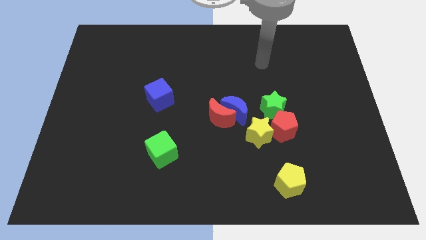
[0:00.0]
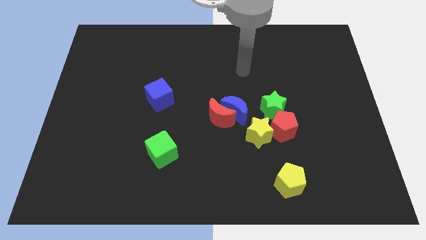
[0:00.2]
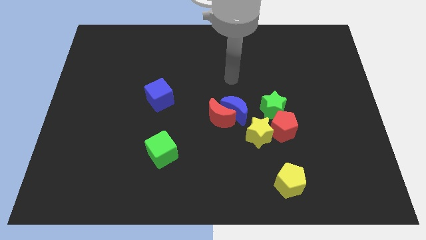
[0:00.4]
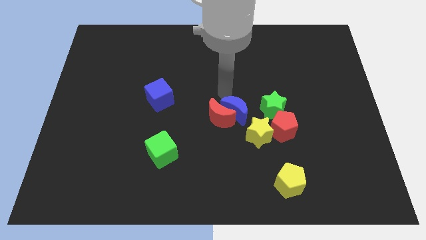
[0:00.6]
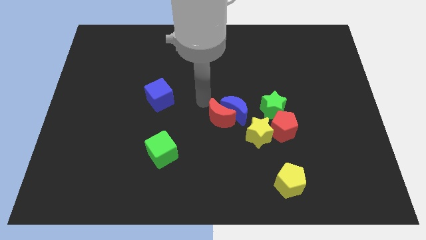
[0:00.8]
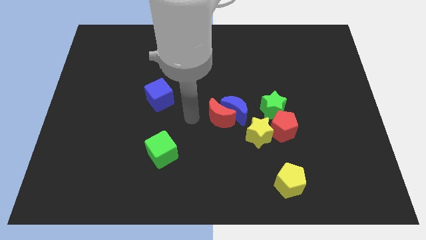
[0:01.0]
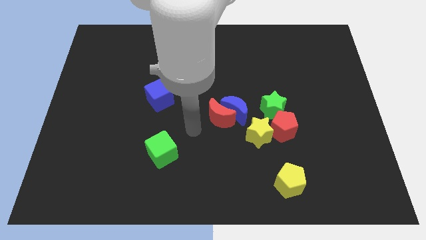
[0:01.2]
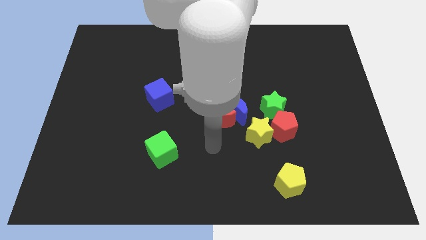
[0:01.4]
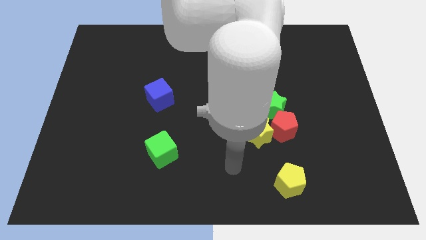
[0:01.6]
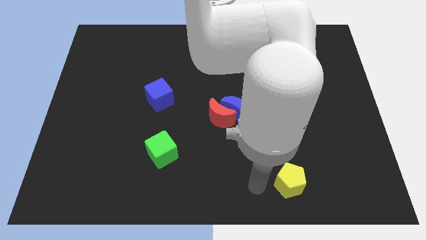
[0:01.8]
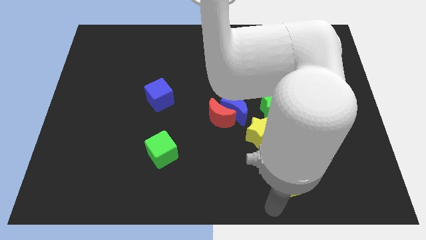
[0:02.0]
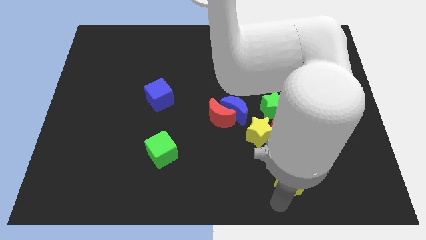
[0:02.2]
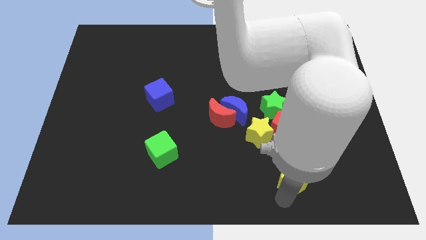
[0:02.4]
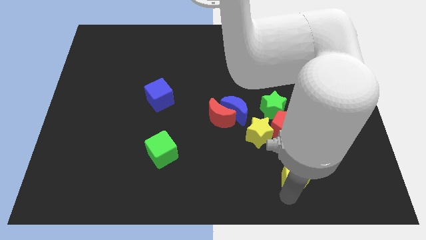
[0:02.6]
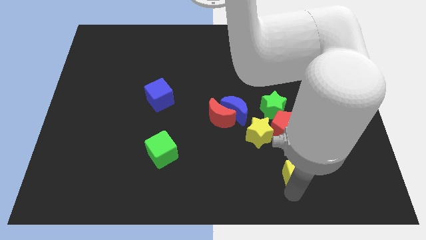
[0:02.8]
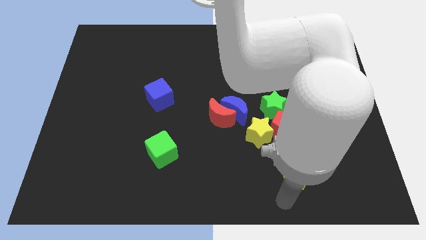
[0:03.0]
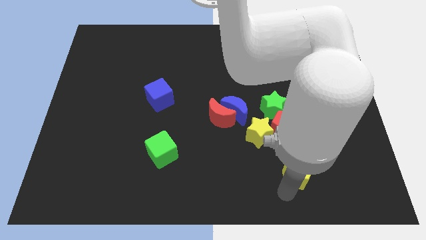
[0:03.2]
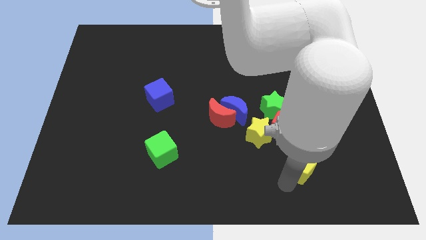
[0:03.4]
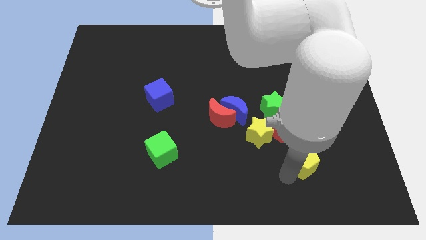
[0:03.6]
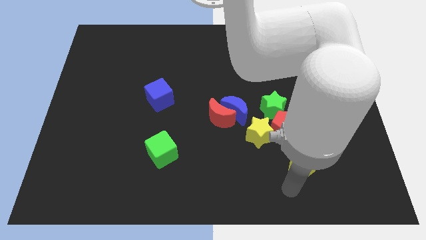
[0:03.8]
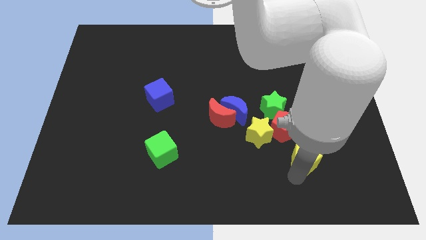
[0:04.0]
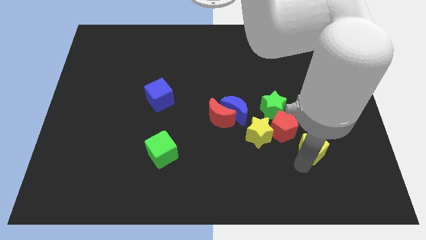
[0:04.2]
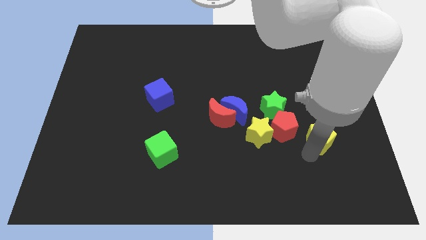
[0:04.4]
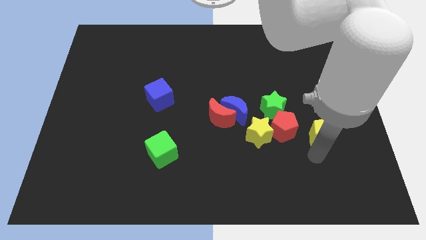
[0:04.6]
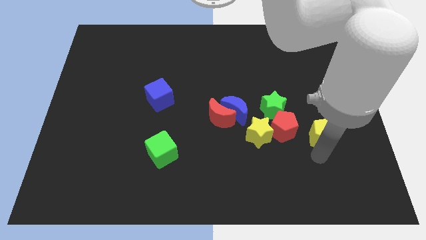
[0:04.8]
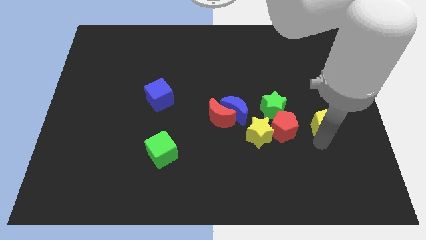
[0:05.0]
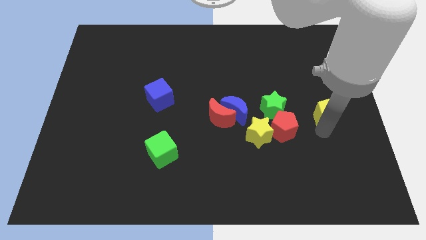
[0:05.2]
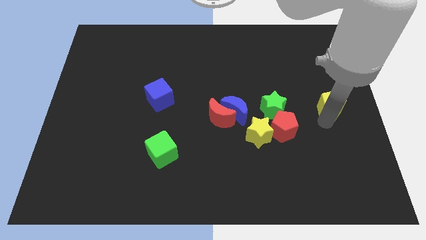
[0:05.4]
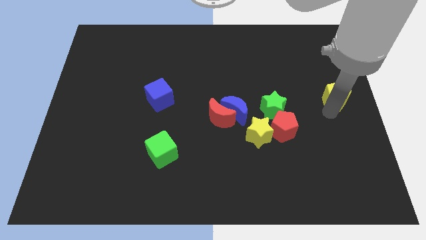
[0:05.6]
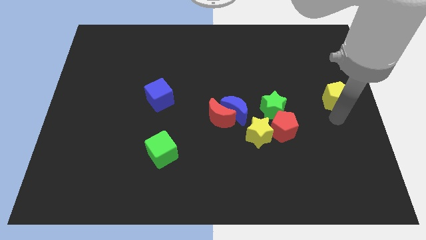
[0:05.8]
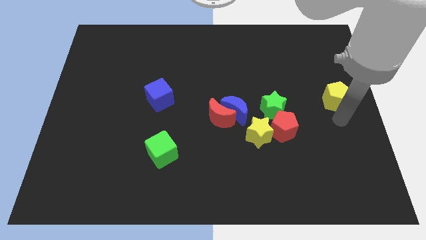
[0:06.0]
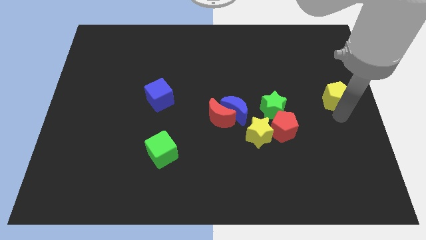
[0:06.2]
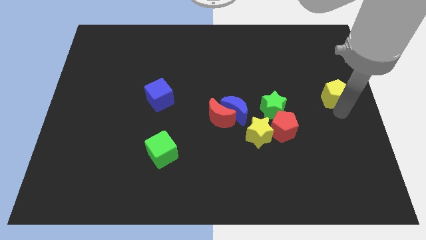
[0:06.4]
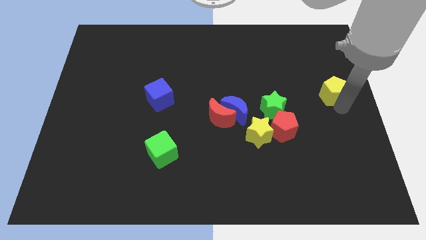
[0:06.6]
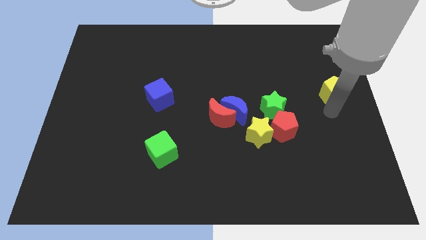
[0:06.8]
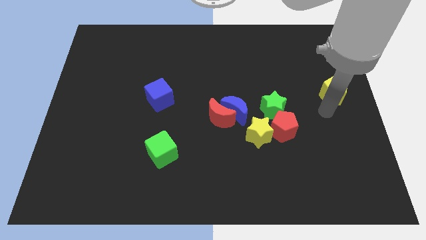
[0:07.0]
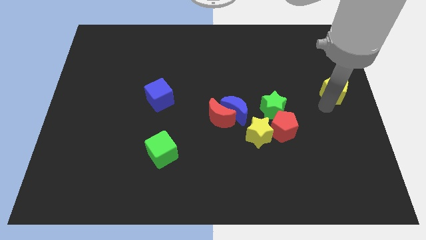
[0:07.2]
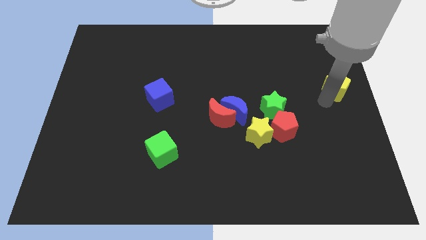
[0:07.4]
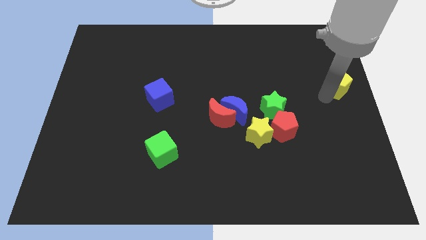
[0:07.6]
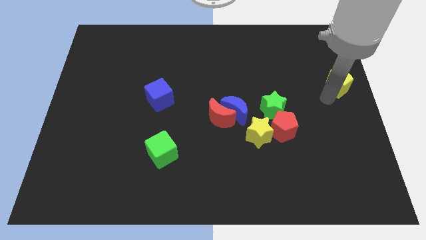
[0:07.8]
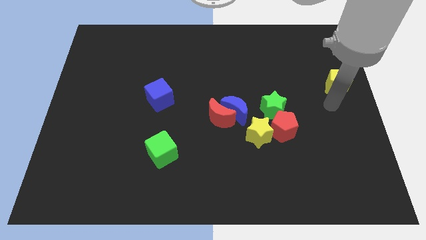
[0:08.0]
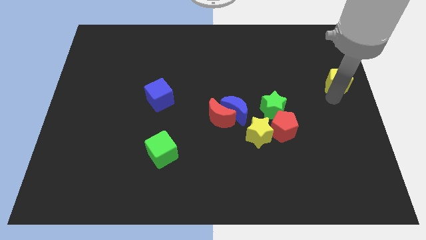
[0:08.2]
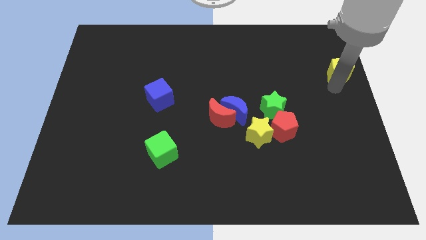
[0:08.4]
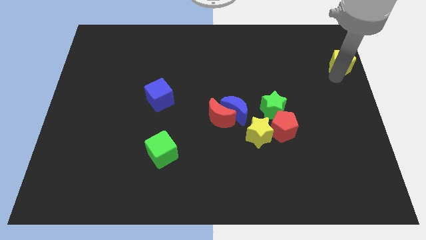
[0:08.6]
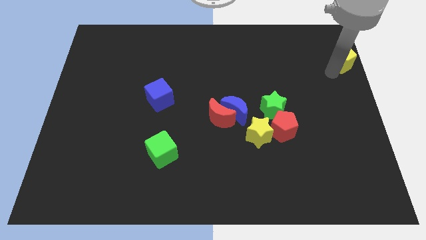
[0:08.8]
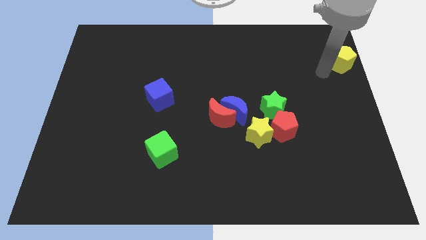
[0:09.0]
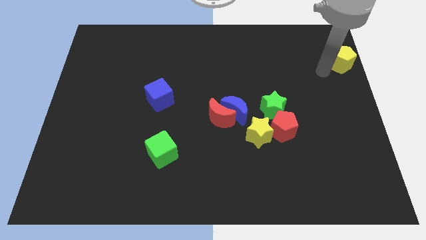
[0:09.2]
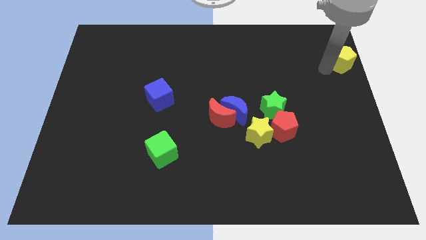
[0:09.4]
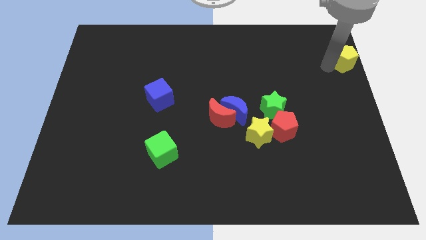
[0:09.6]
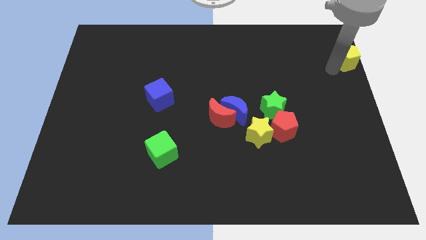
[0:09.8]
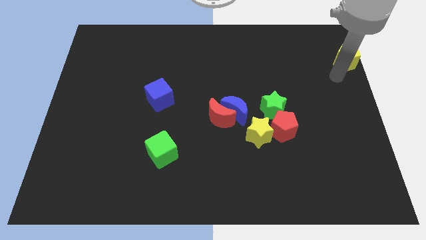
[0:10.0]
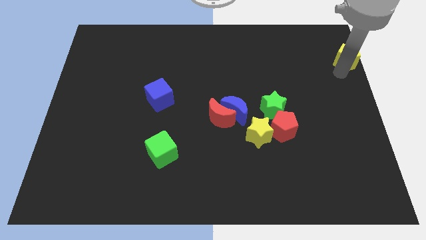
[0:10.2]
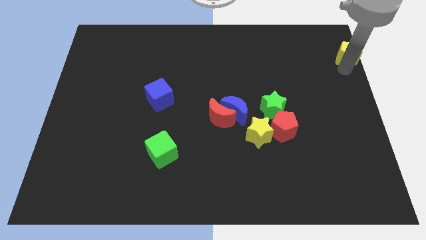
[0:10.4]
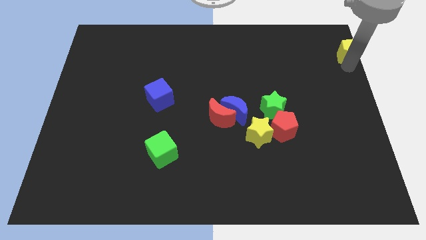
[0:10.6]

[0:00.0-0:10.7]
move the yellow pentagon to the top right

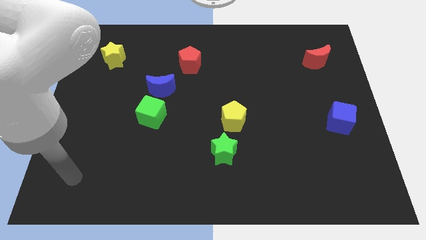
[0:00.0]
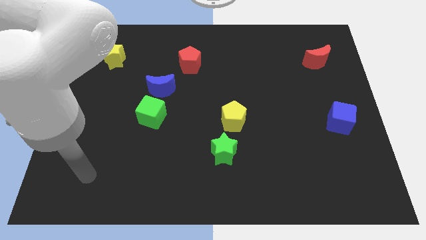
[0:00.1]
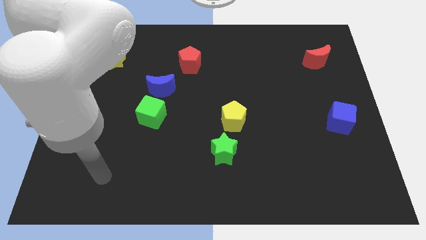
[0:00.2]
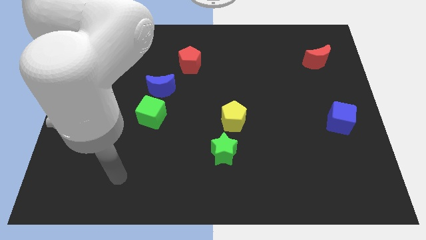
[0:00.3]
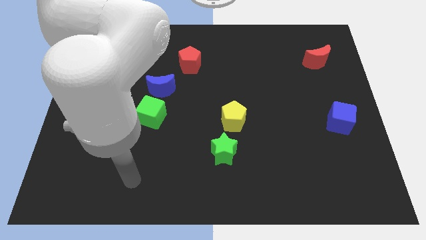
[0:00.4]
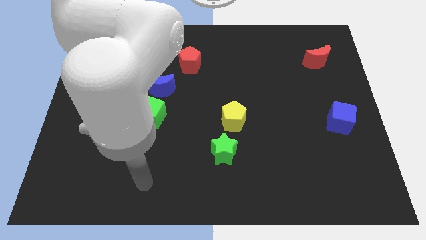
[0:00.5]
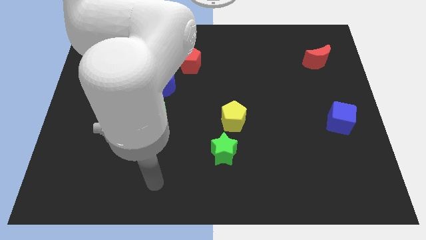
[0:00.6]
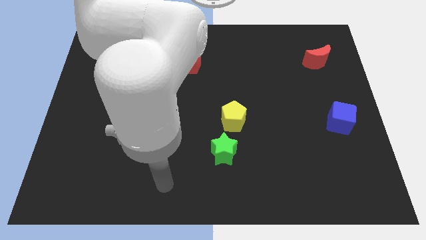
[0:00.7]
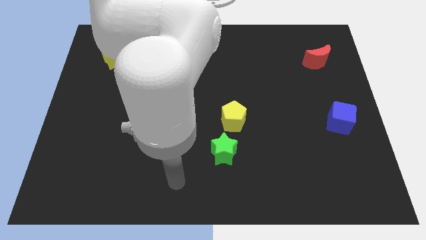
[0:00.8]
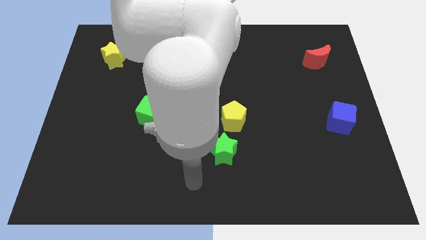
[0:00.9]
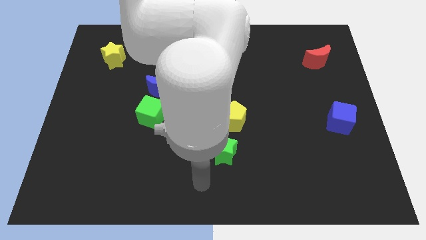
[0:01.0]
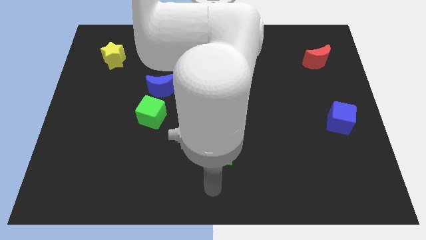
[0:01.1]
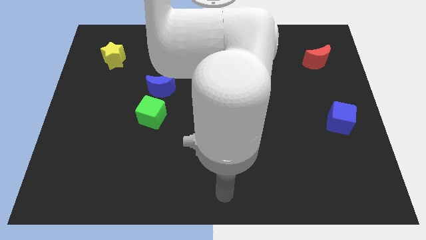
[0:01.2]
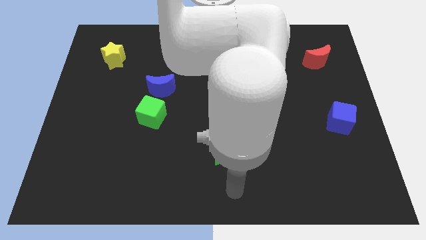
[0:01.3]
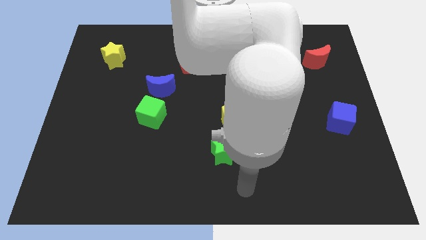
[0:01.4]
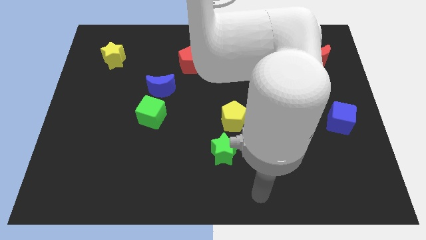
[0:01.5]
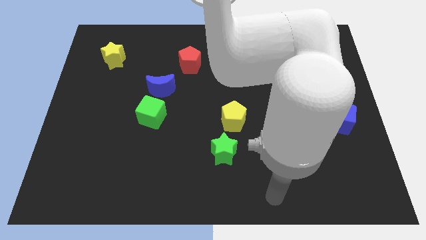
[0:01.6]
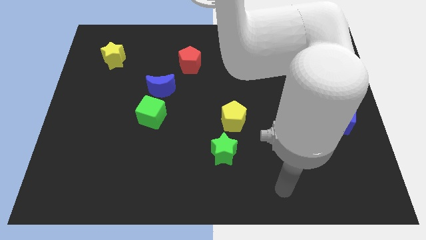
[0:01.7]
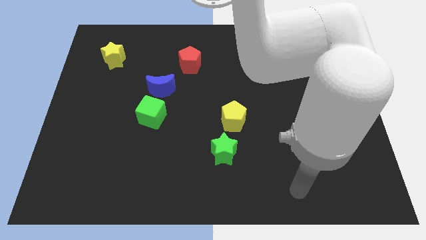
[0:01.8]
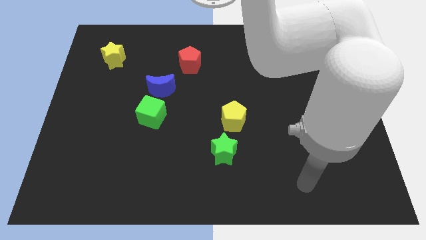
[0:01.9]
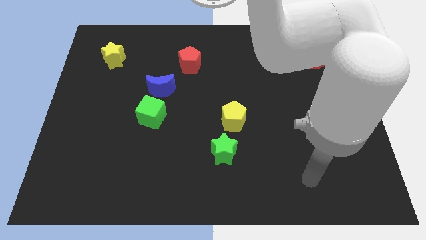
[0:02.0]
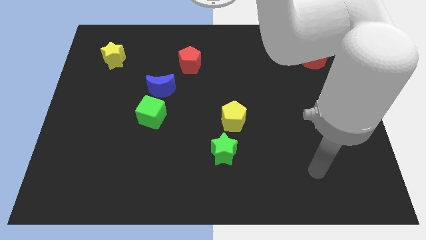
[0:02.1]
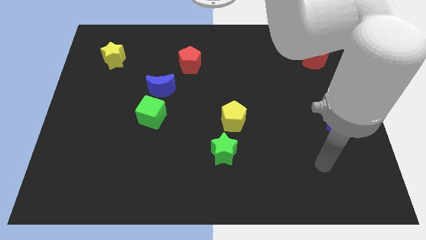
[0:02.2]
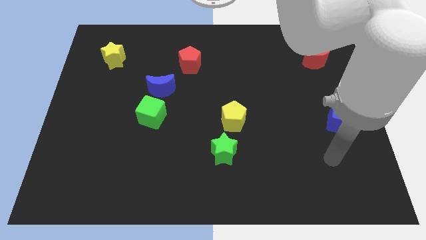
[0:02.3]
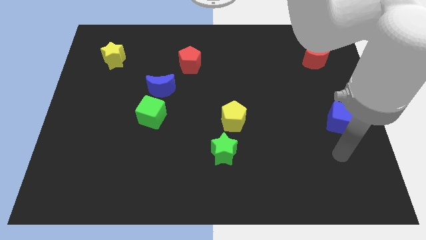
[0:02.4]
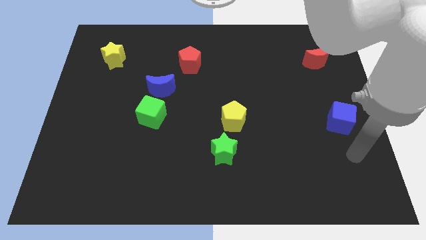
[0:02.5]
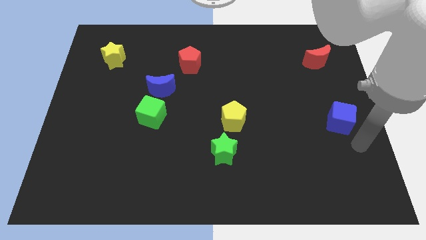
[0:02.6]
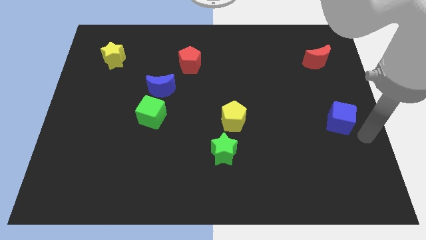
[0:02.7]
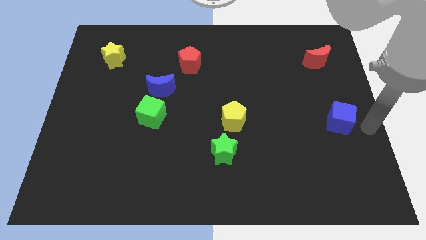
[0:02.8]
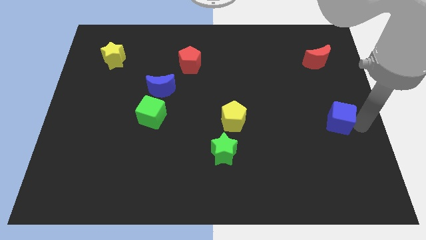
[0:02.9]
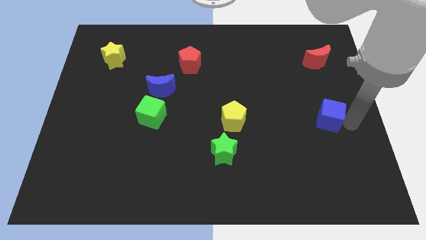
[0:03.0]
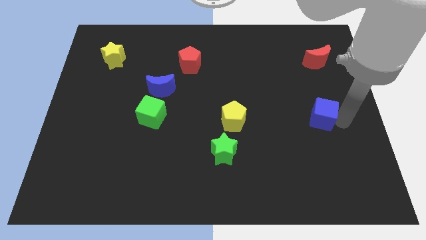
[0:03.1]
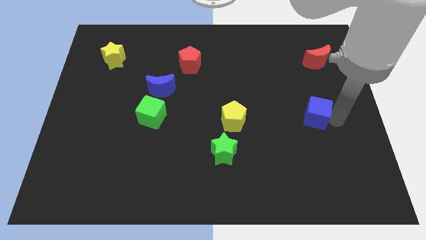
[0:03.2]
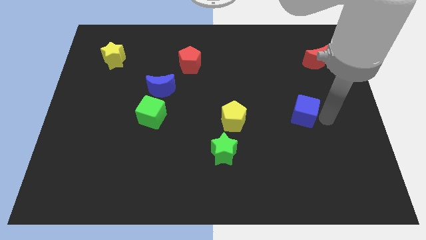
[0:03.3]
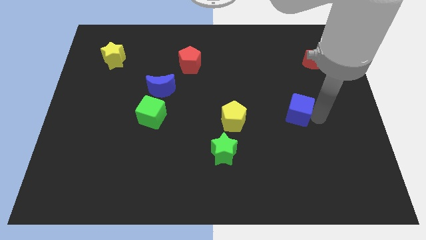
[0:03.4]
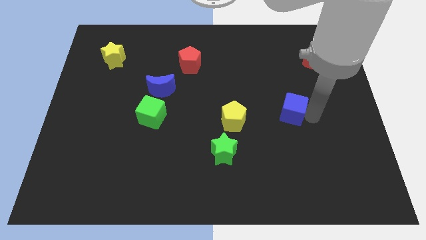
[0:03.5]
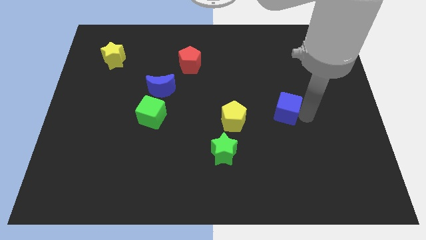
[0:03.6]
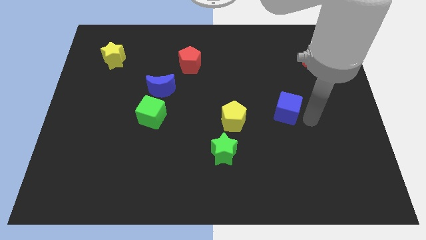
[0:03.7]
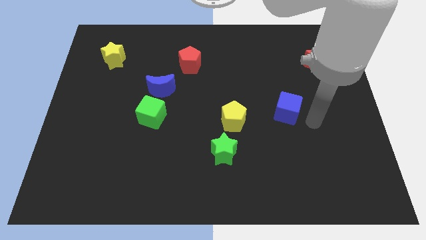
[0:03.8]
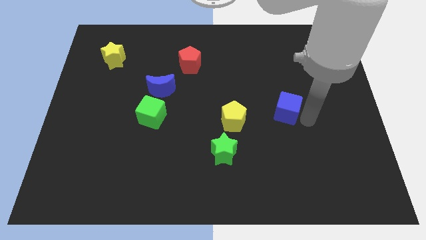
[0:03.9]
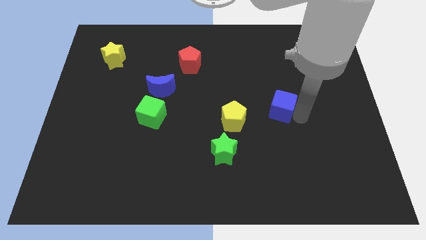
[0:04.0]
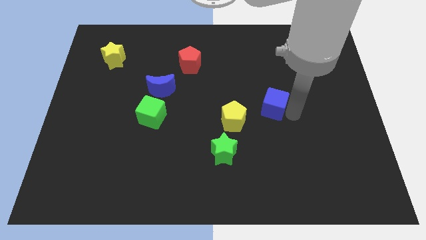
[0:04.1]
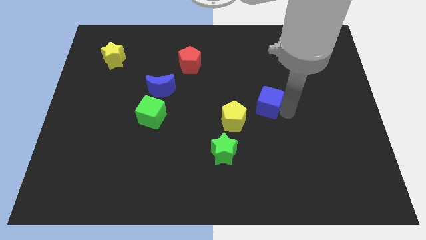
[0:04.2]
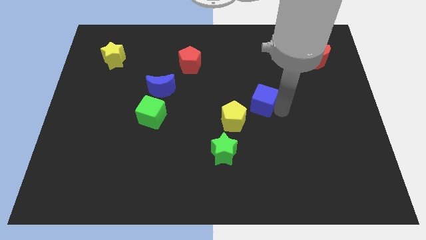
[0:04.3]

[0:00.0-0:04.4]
push the blue cube to the middle of the board
